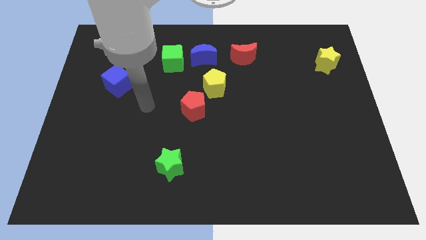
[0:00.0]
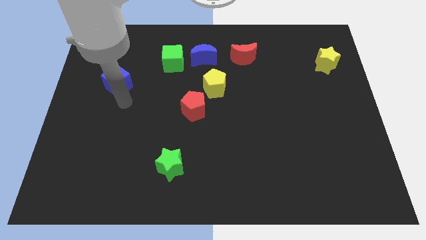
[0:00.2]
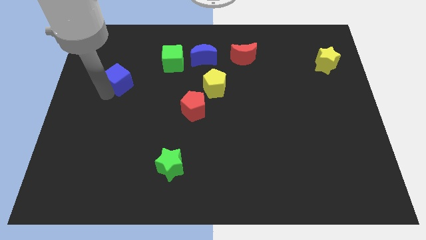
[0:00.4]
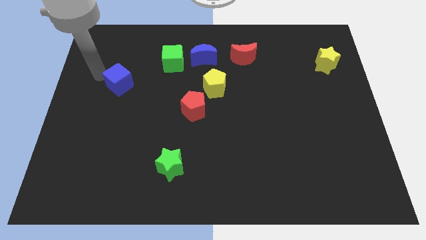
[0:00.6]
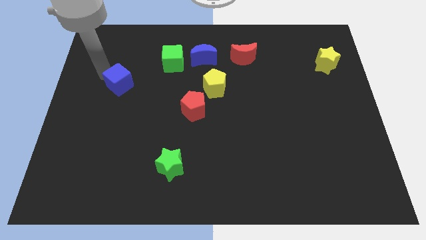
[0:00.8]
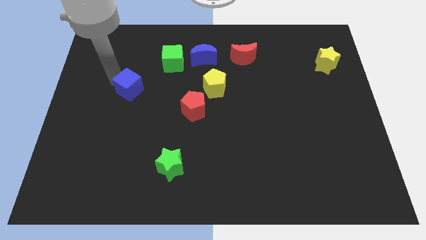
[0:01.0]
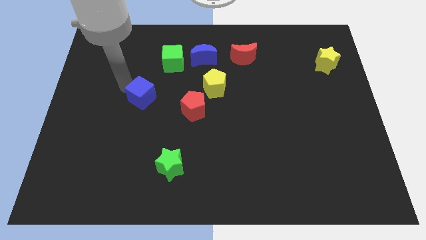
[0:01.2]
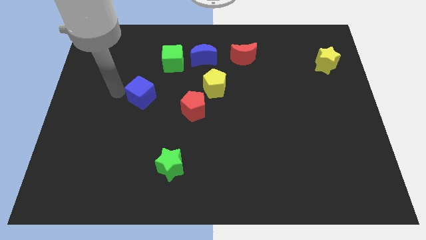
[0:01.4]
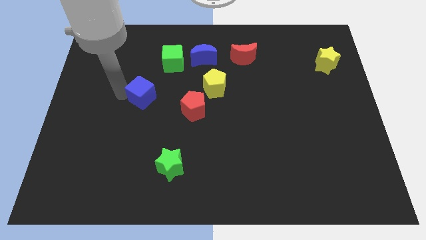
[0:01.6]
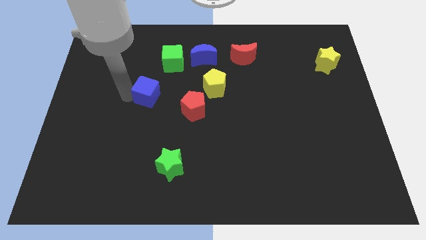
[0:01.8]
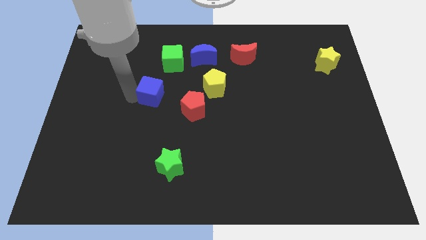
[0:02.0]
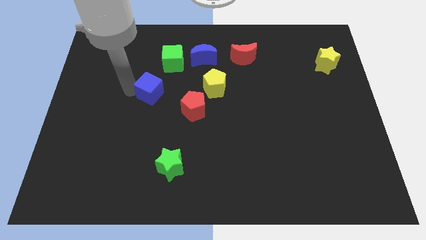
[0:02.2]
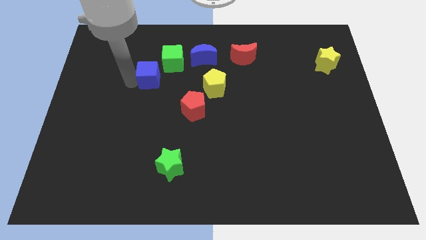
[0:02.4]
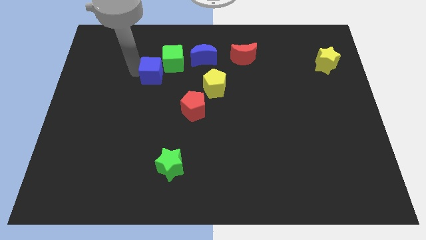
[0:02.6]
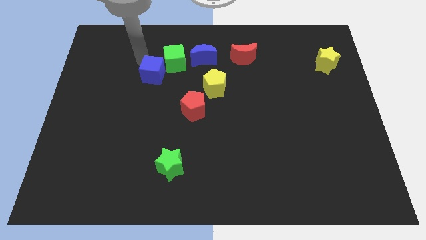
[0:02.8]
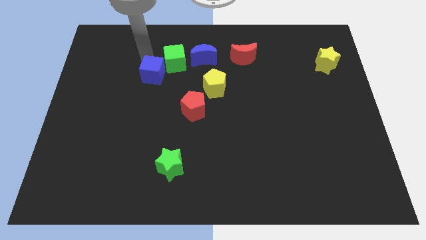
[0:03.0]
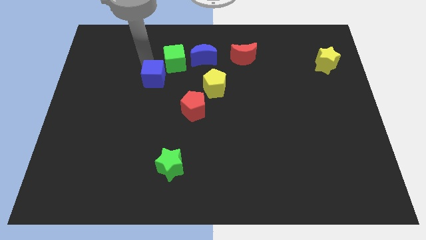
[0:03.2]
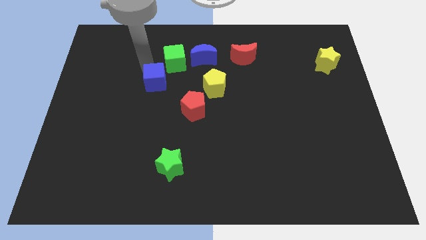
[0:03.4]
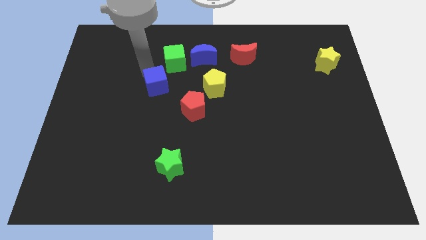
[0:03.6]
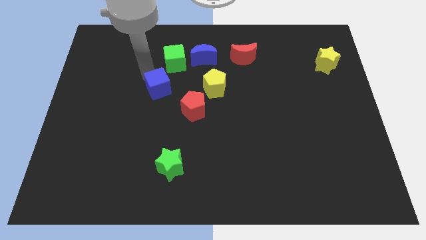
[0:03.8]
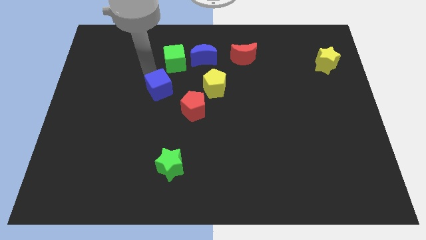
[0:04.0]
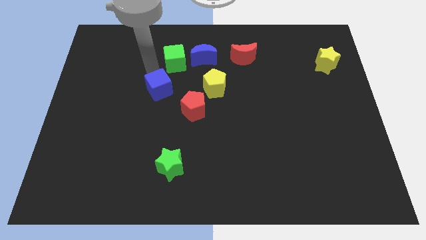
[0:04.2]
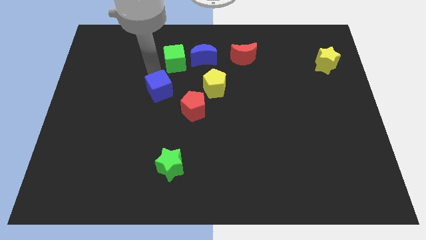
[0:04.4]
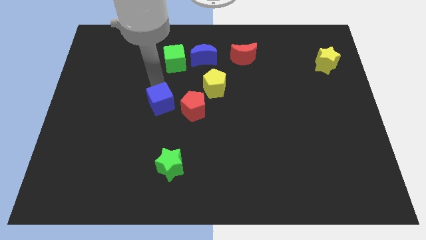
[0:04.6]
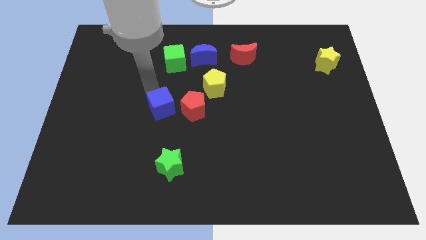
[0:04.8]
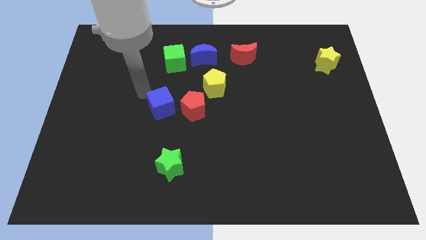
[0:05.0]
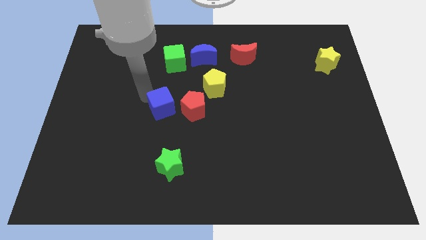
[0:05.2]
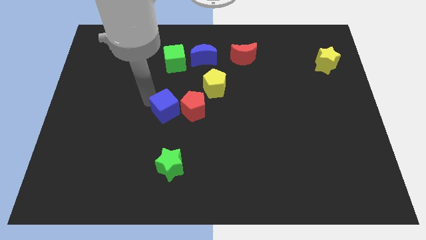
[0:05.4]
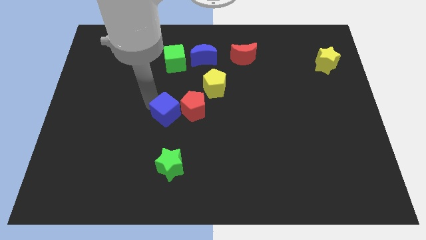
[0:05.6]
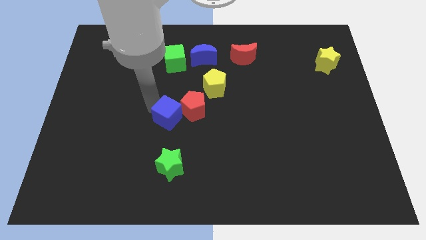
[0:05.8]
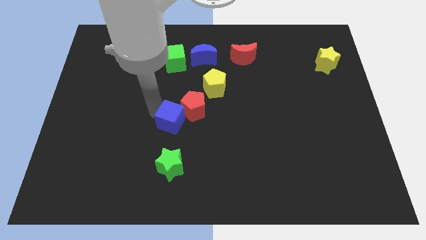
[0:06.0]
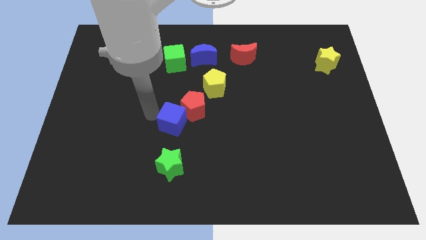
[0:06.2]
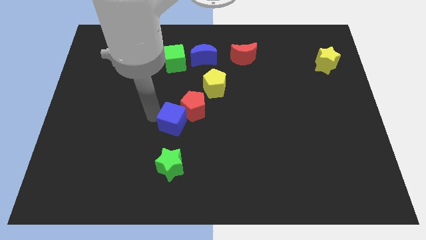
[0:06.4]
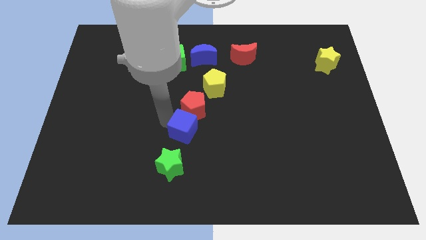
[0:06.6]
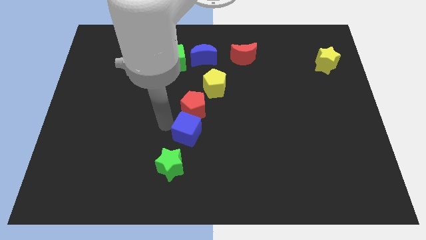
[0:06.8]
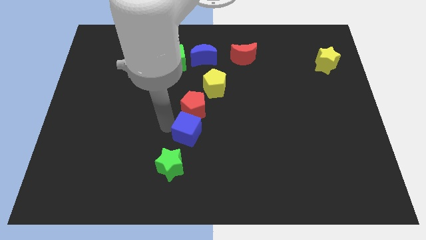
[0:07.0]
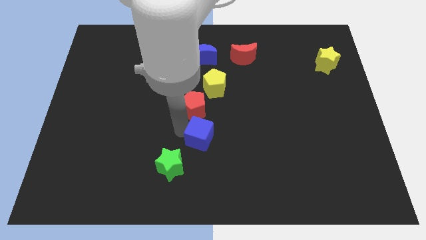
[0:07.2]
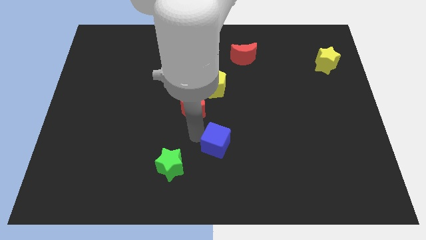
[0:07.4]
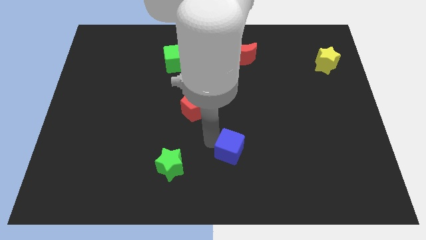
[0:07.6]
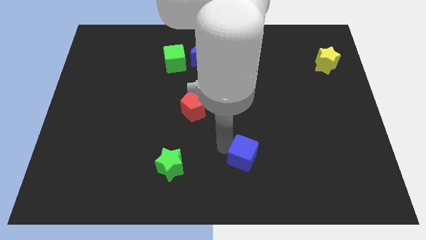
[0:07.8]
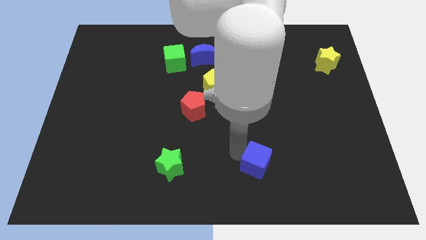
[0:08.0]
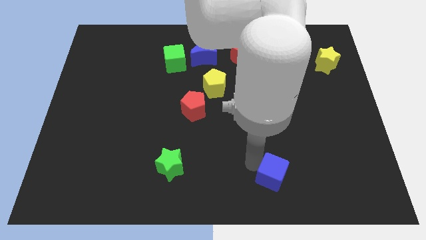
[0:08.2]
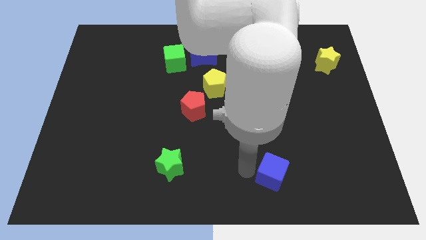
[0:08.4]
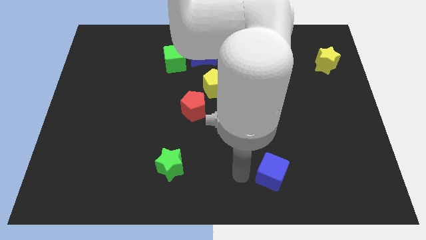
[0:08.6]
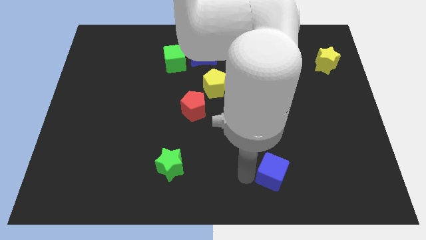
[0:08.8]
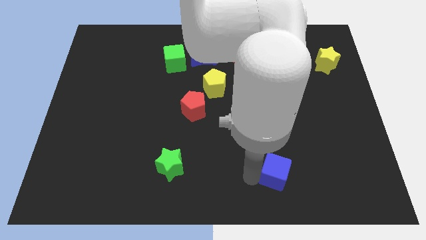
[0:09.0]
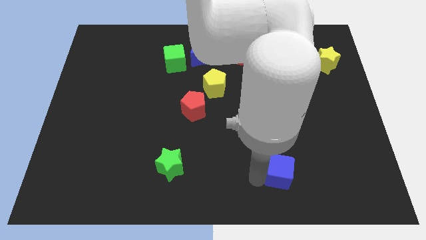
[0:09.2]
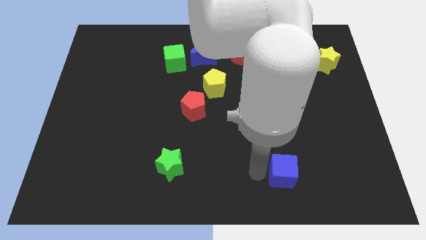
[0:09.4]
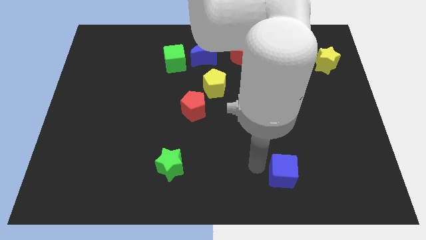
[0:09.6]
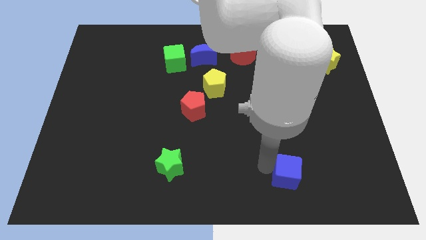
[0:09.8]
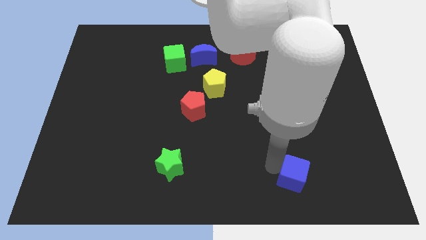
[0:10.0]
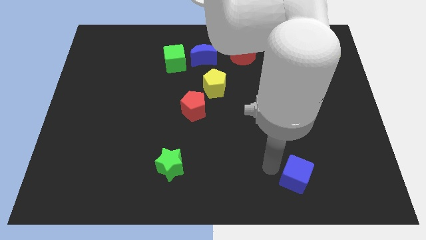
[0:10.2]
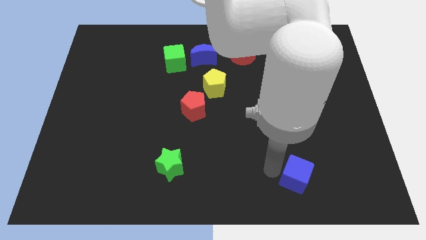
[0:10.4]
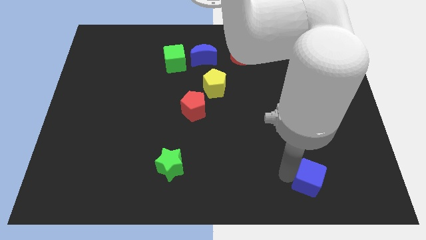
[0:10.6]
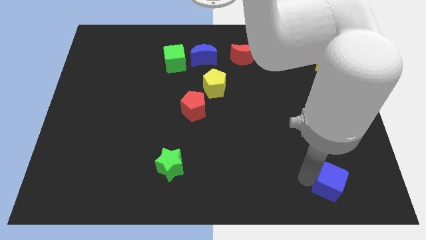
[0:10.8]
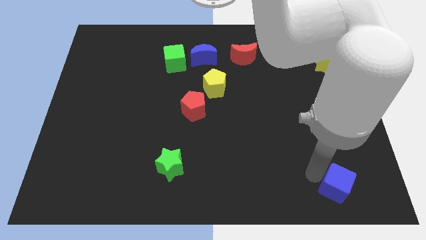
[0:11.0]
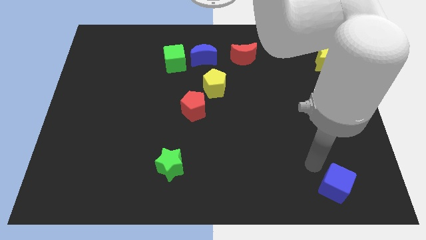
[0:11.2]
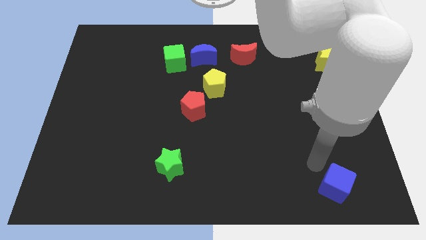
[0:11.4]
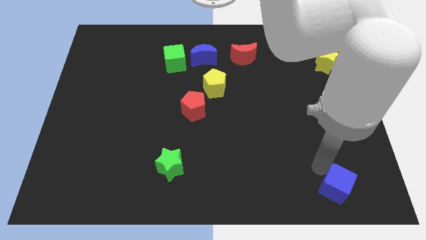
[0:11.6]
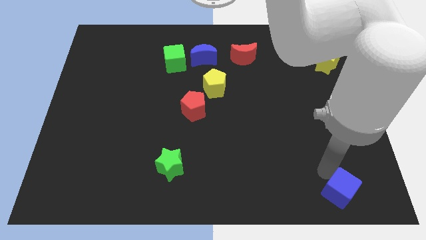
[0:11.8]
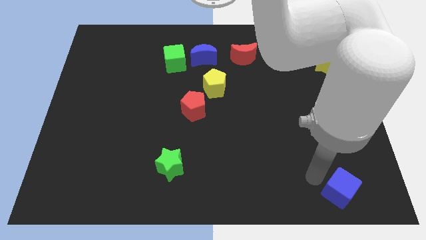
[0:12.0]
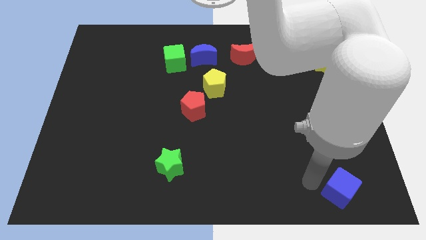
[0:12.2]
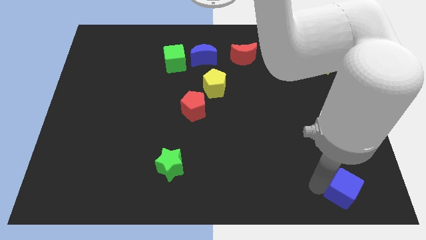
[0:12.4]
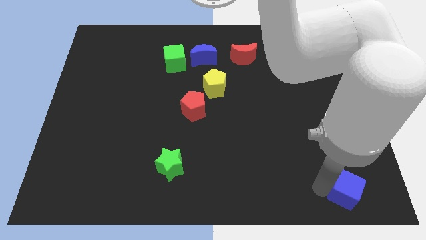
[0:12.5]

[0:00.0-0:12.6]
put the blue cube to the bottom right of the board

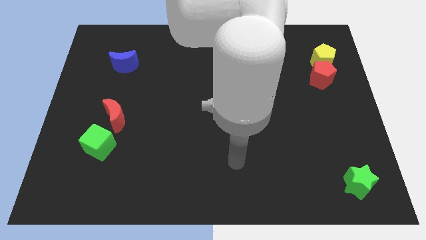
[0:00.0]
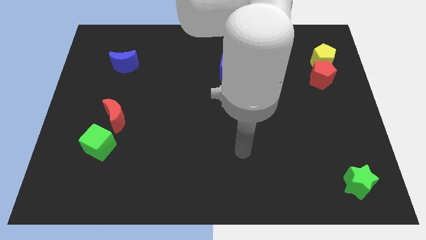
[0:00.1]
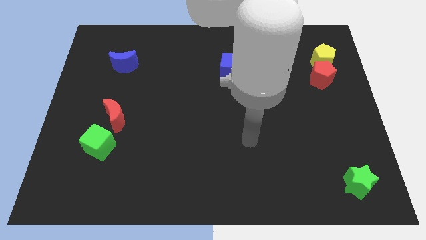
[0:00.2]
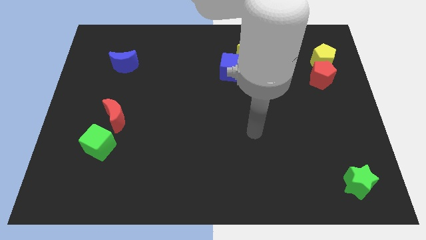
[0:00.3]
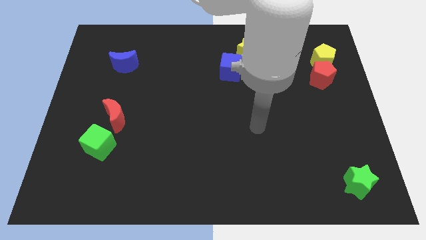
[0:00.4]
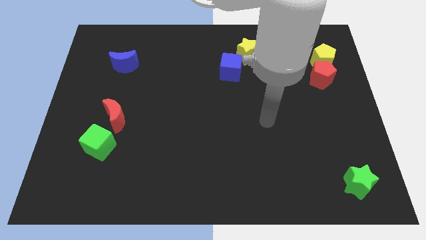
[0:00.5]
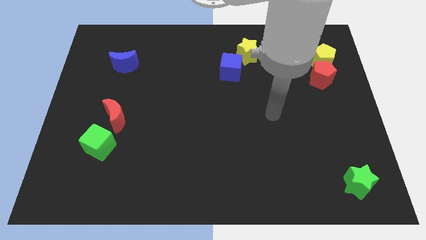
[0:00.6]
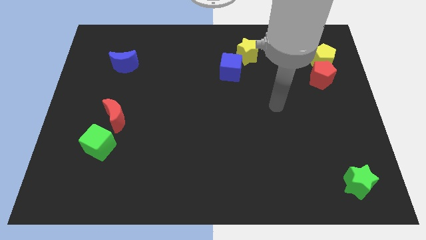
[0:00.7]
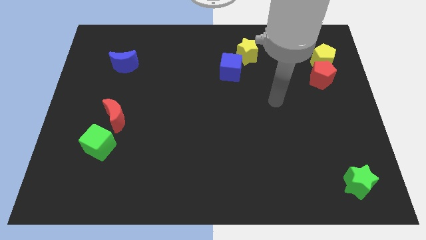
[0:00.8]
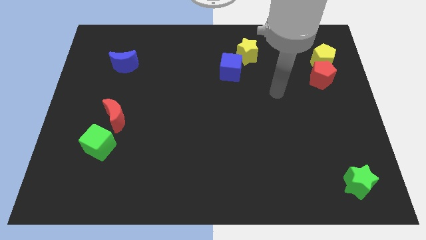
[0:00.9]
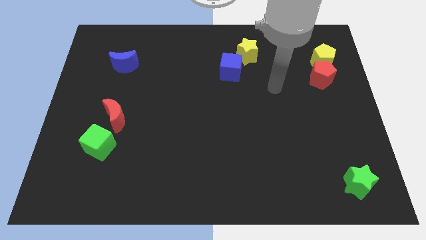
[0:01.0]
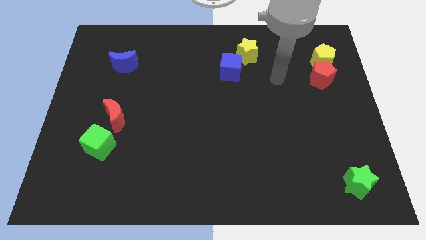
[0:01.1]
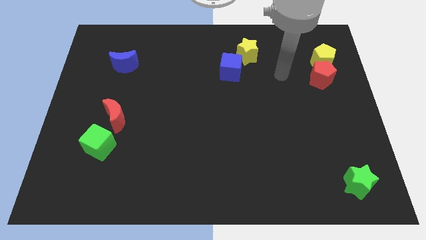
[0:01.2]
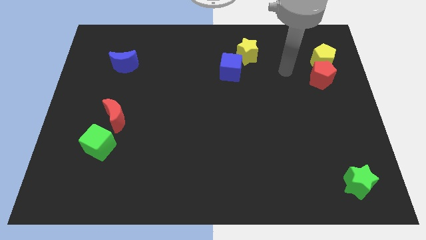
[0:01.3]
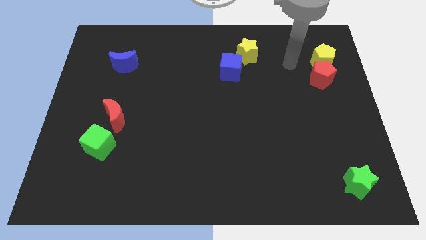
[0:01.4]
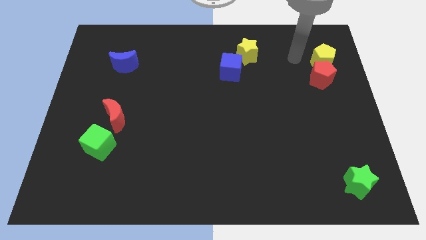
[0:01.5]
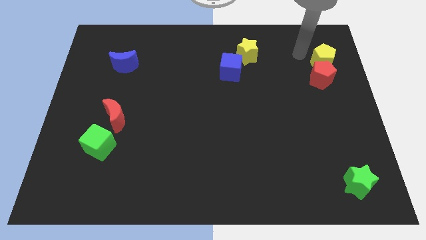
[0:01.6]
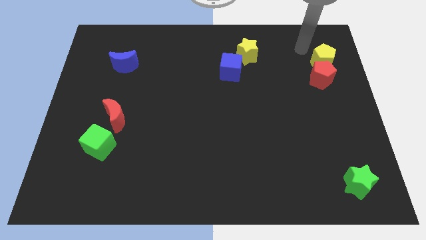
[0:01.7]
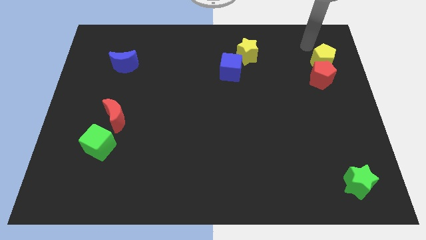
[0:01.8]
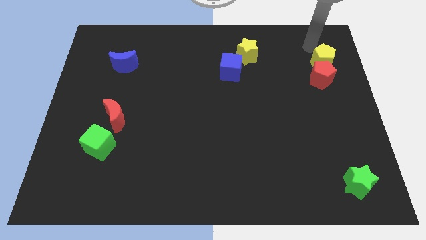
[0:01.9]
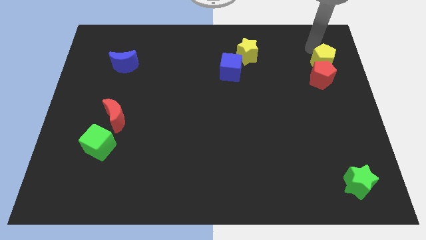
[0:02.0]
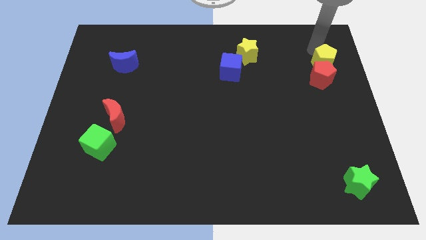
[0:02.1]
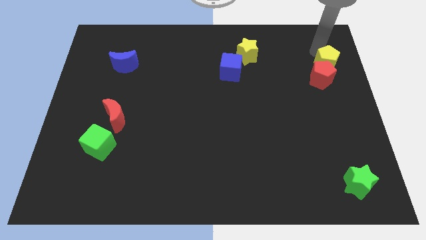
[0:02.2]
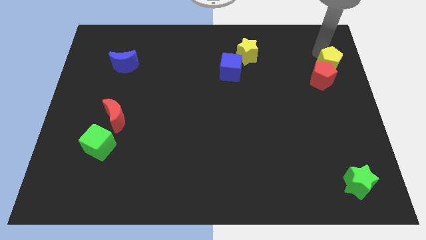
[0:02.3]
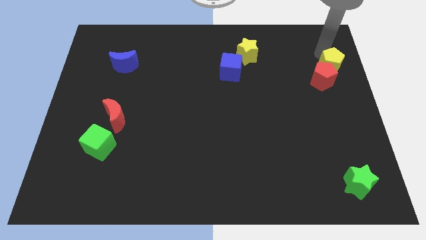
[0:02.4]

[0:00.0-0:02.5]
slide the yellow pentagon to the right side
